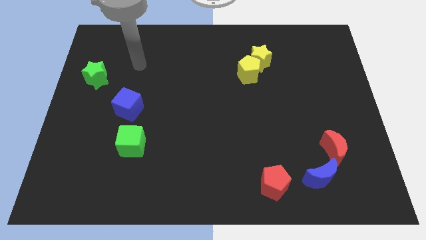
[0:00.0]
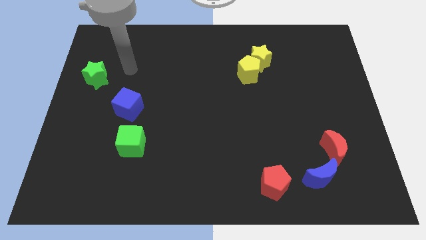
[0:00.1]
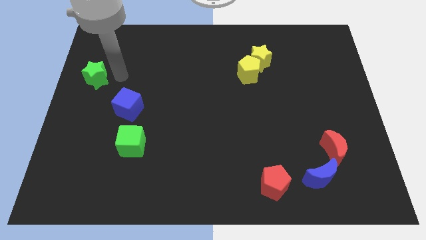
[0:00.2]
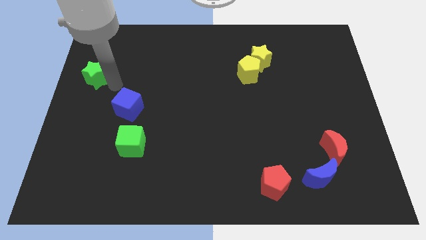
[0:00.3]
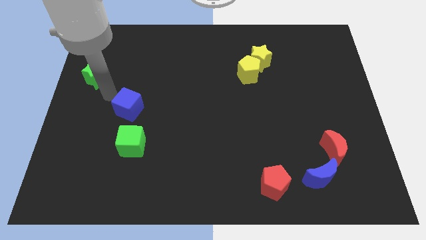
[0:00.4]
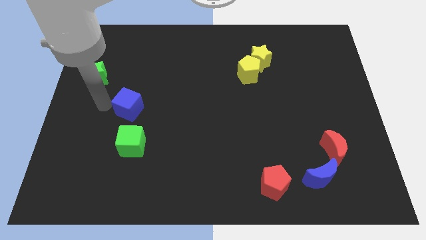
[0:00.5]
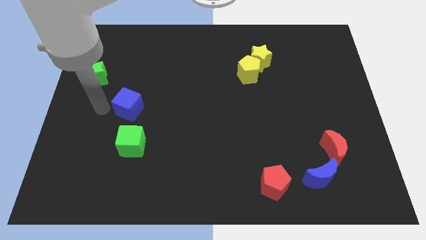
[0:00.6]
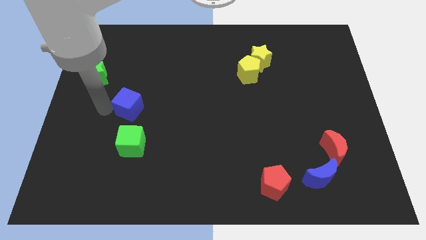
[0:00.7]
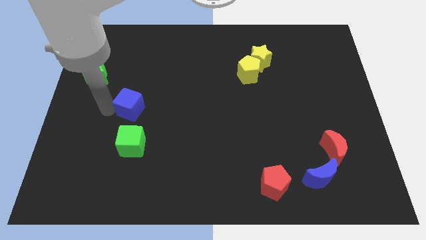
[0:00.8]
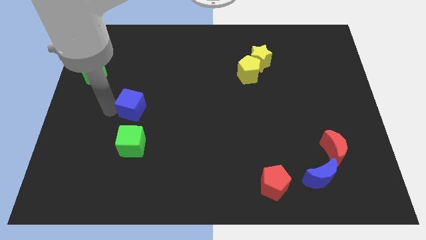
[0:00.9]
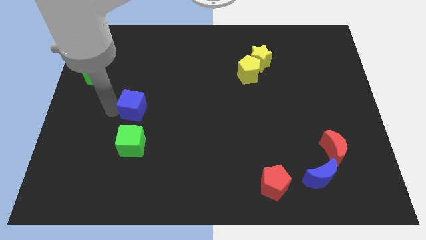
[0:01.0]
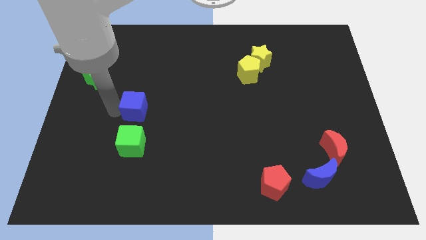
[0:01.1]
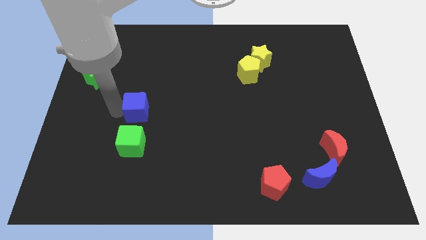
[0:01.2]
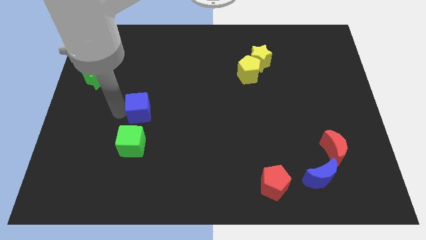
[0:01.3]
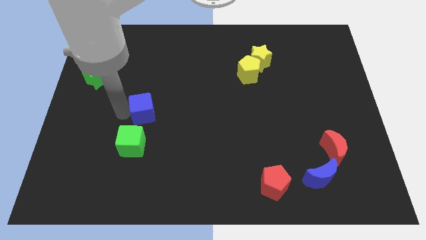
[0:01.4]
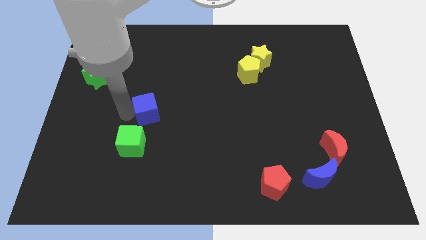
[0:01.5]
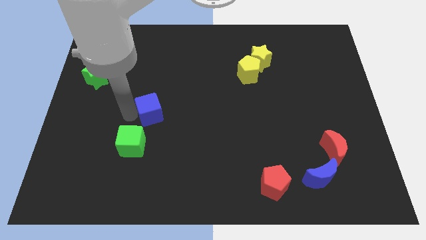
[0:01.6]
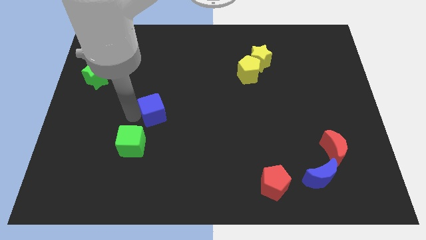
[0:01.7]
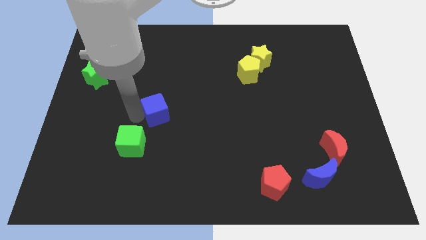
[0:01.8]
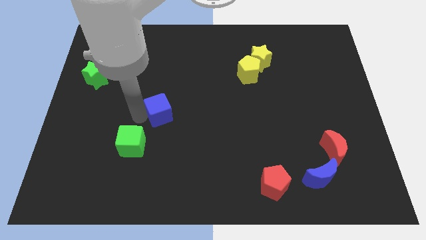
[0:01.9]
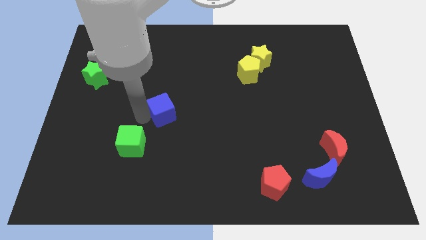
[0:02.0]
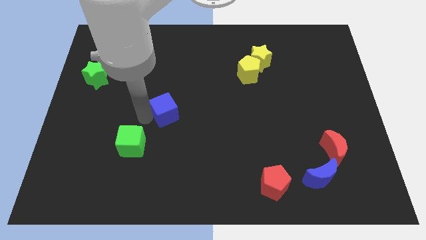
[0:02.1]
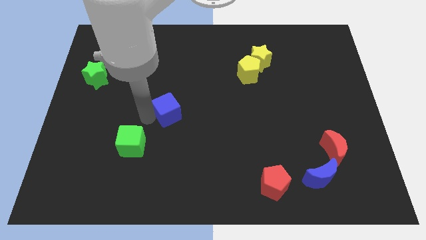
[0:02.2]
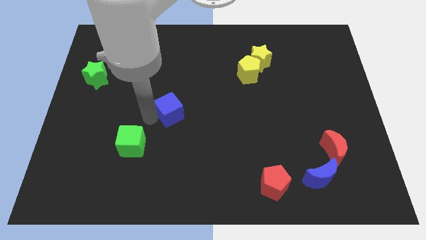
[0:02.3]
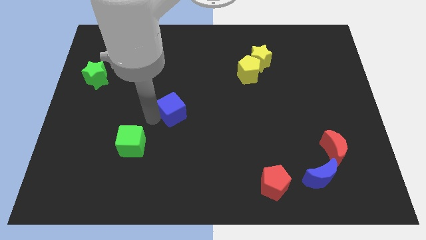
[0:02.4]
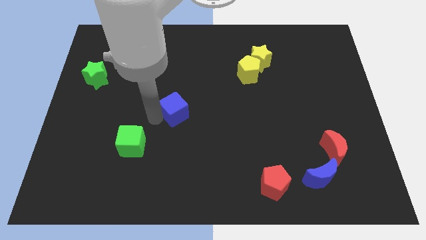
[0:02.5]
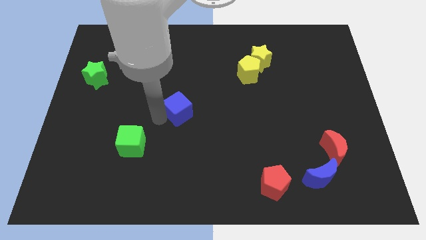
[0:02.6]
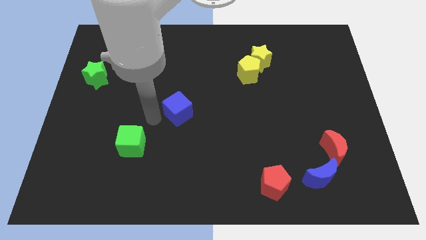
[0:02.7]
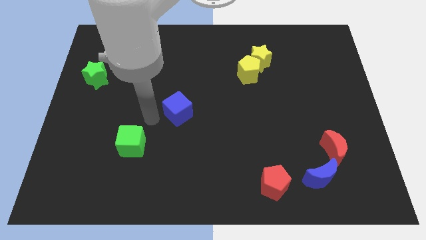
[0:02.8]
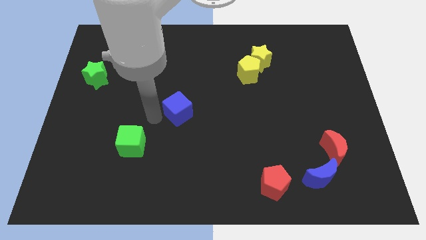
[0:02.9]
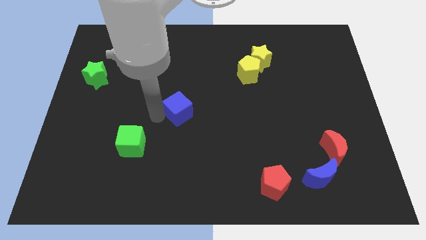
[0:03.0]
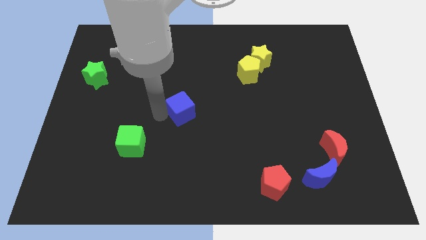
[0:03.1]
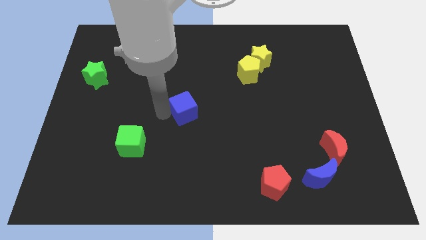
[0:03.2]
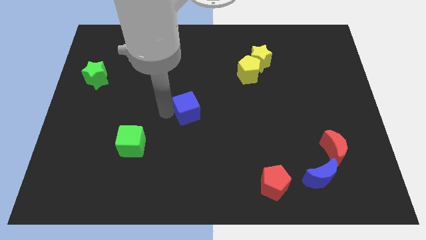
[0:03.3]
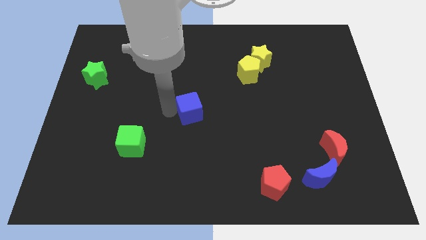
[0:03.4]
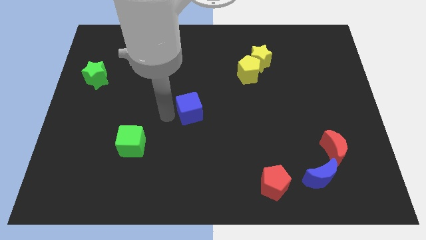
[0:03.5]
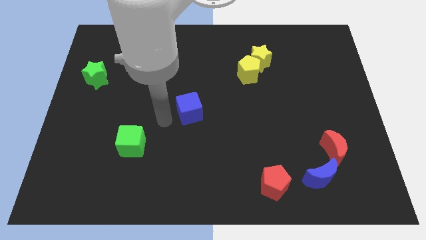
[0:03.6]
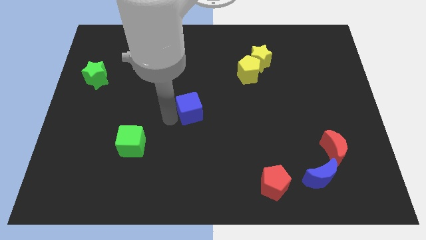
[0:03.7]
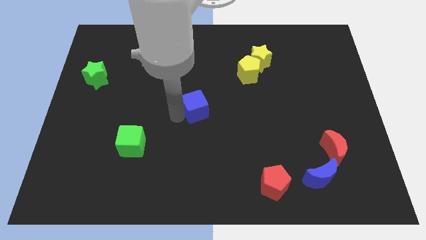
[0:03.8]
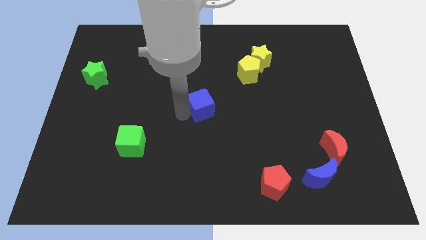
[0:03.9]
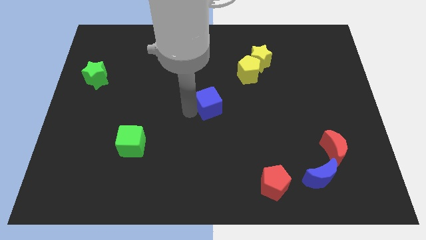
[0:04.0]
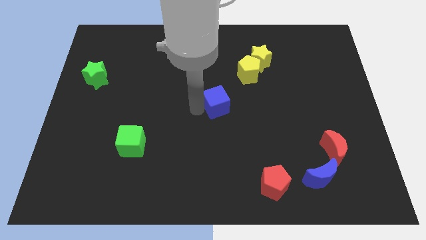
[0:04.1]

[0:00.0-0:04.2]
slide the blue cube to the right

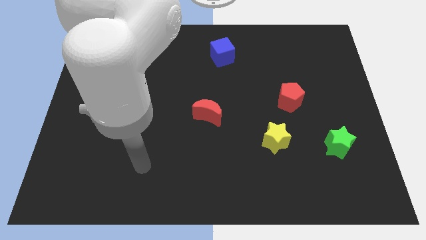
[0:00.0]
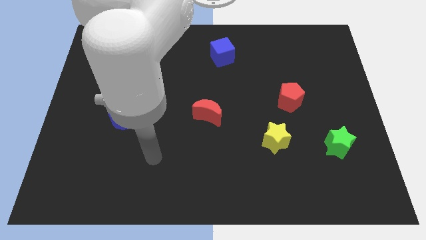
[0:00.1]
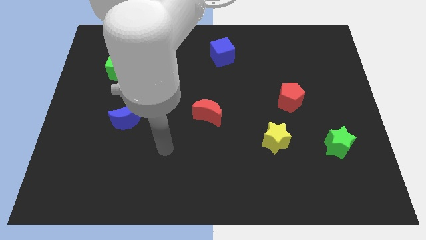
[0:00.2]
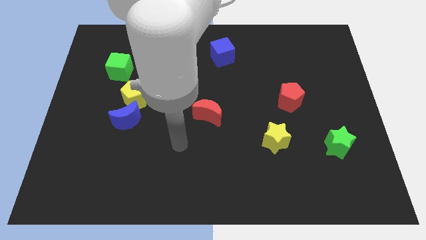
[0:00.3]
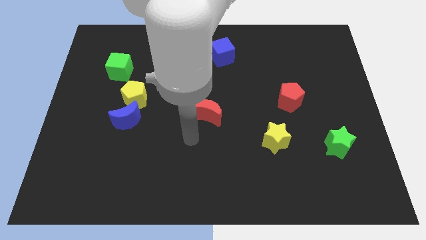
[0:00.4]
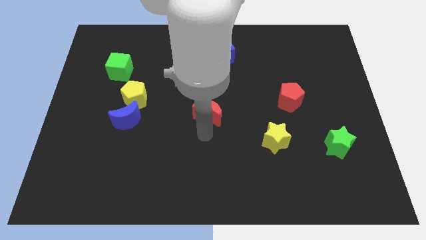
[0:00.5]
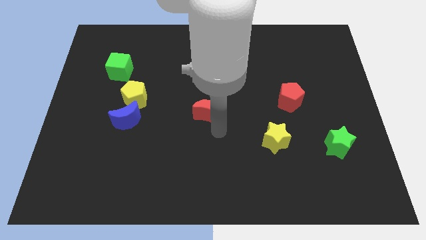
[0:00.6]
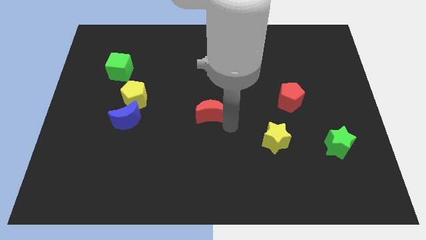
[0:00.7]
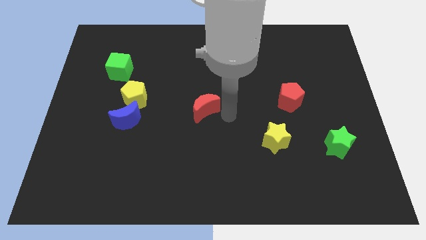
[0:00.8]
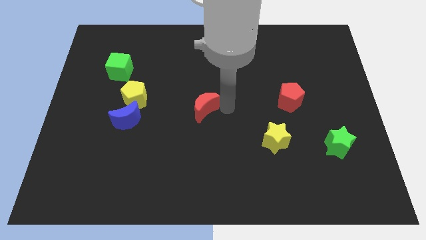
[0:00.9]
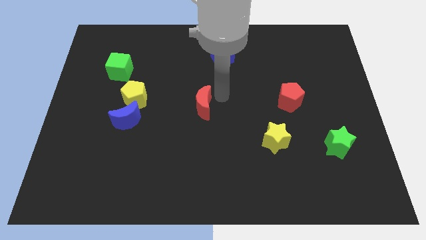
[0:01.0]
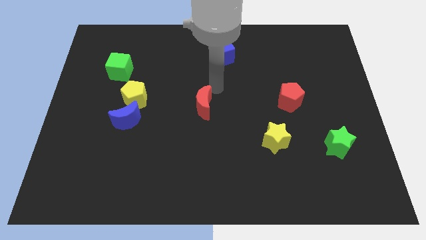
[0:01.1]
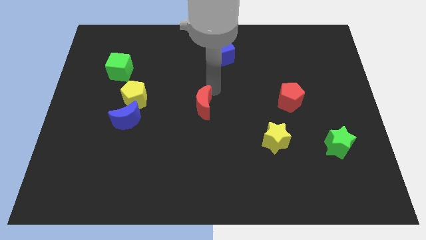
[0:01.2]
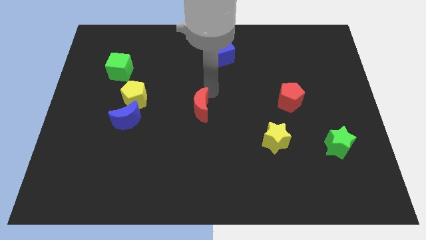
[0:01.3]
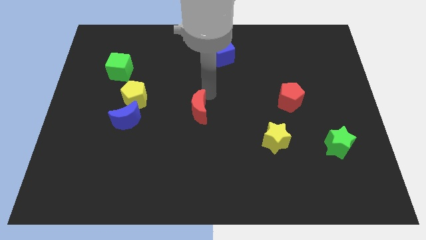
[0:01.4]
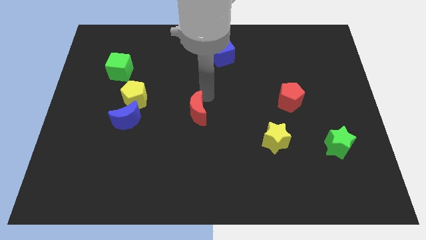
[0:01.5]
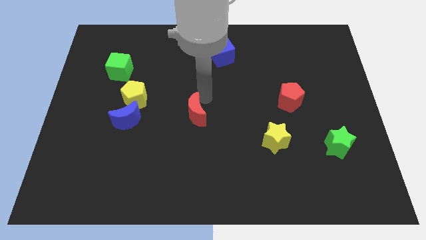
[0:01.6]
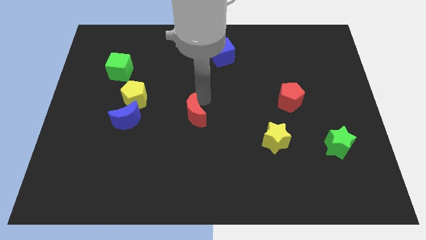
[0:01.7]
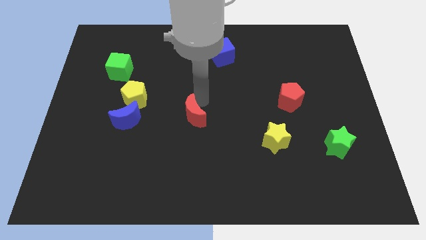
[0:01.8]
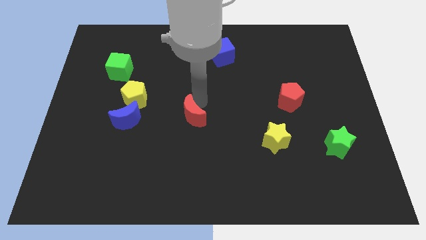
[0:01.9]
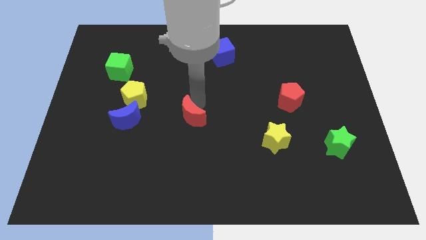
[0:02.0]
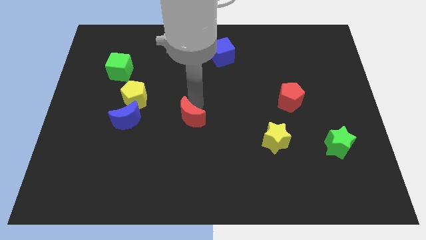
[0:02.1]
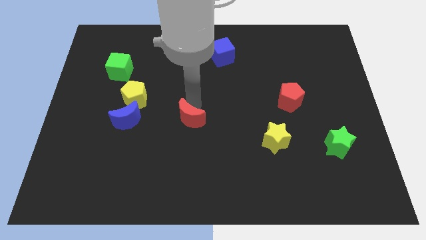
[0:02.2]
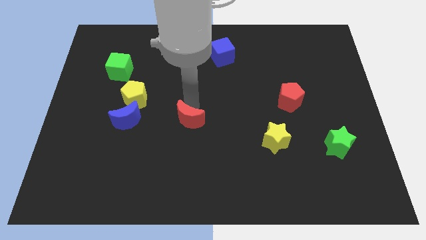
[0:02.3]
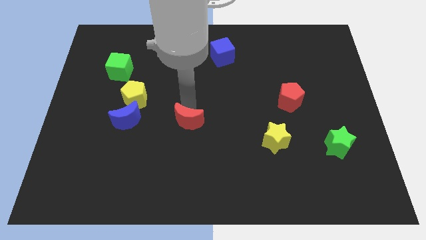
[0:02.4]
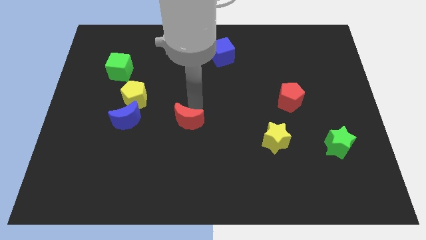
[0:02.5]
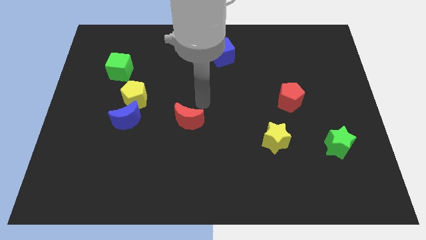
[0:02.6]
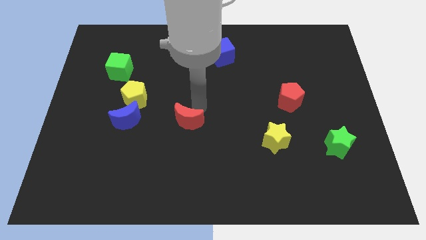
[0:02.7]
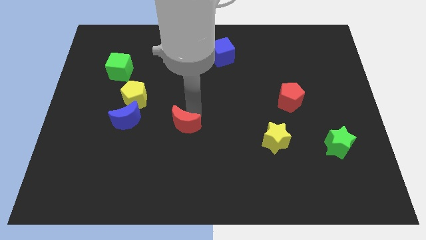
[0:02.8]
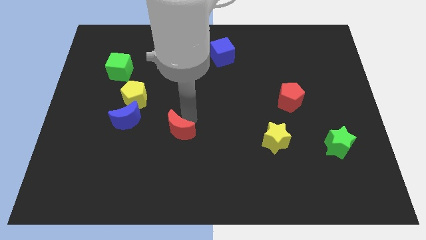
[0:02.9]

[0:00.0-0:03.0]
slightly slide the red moon down and then to the left

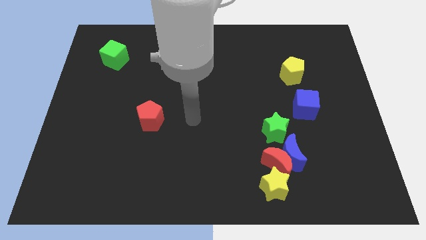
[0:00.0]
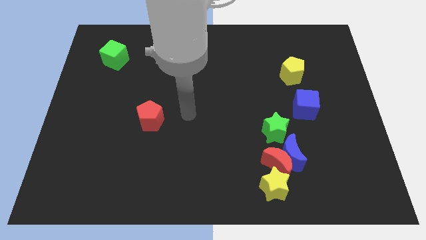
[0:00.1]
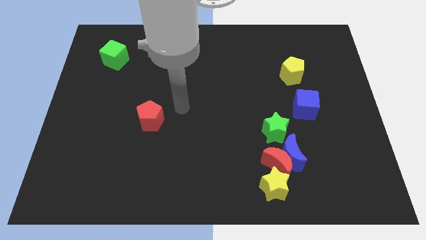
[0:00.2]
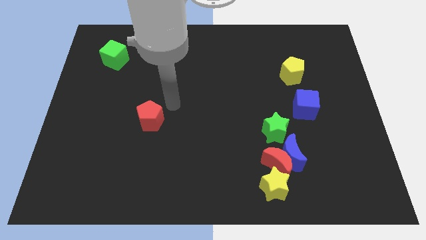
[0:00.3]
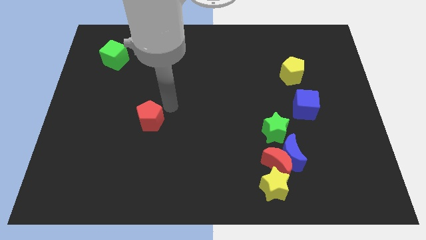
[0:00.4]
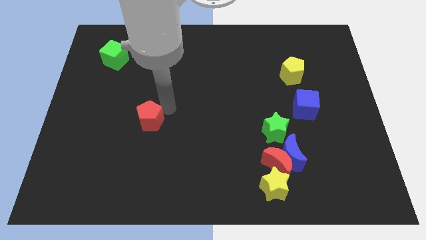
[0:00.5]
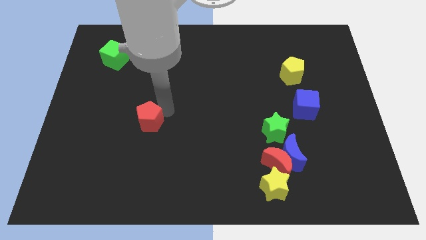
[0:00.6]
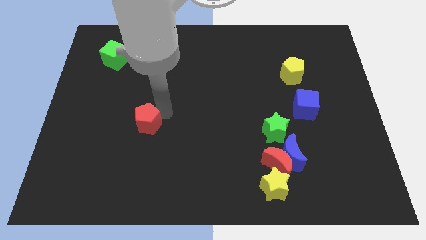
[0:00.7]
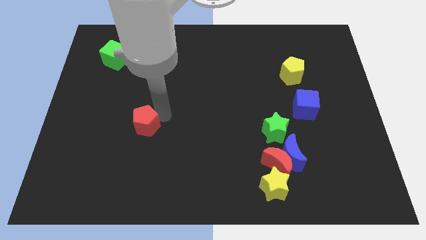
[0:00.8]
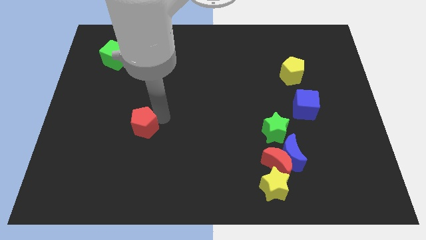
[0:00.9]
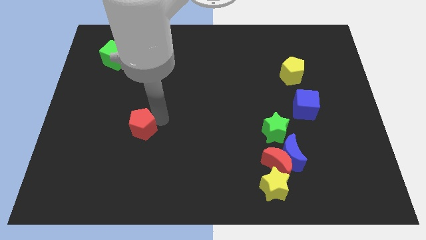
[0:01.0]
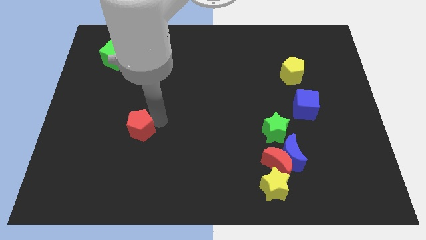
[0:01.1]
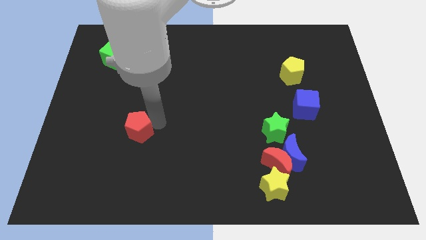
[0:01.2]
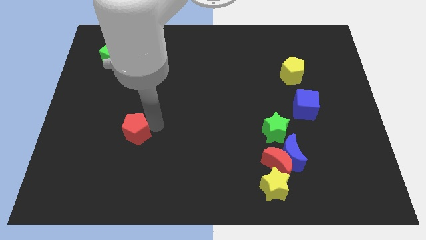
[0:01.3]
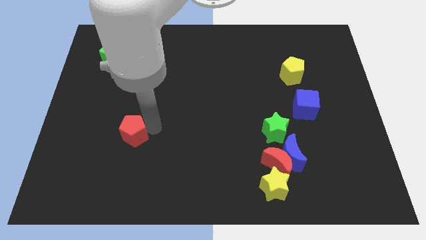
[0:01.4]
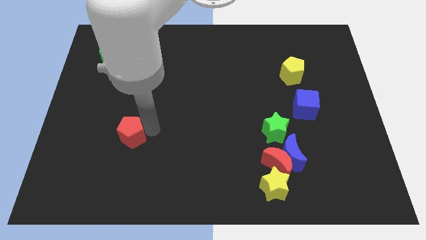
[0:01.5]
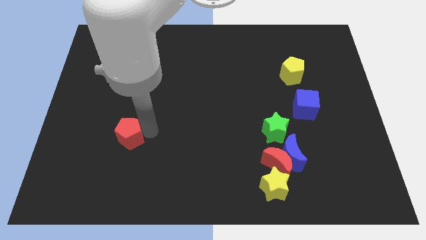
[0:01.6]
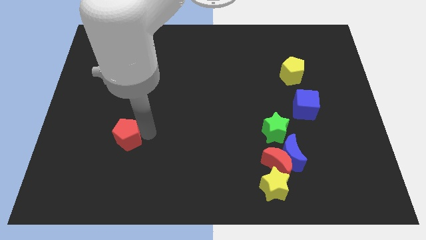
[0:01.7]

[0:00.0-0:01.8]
push the red pentagon a bit downwards and to the left
